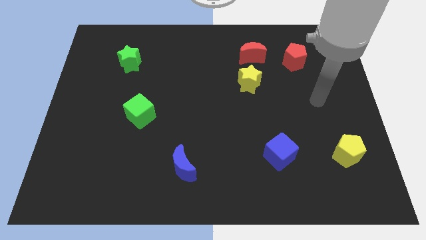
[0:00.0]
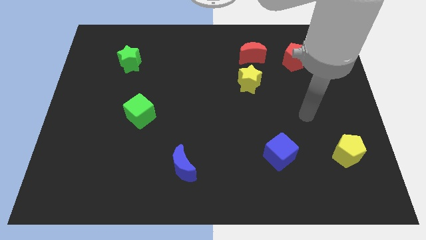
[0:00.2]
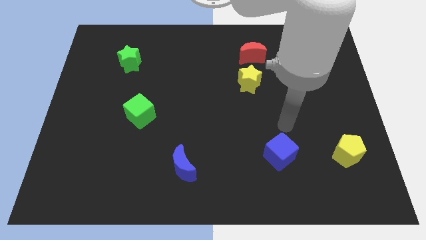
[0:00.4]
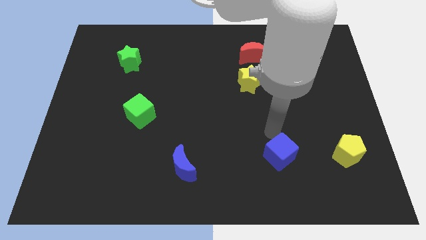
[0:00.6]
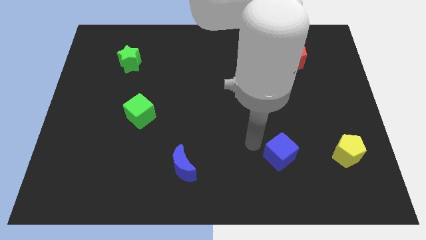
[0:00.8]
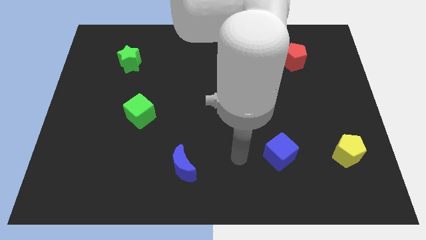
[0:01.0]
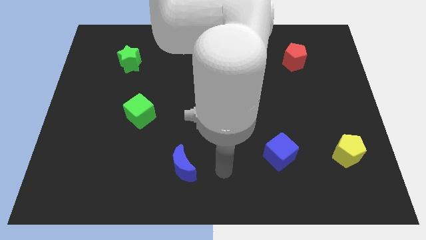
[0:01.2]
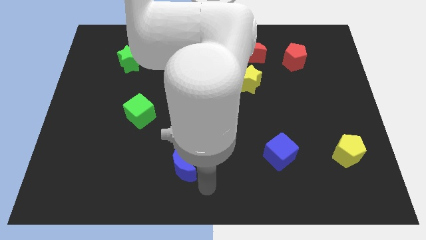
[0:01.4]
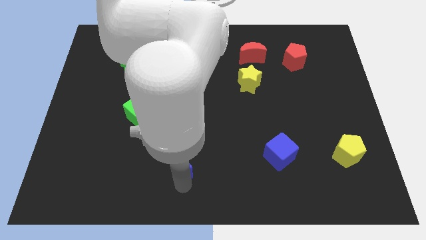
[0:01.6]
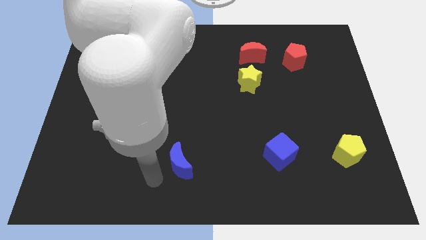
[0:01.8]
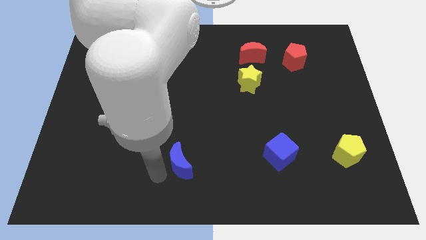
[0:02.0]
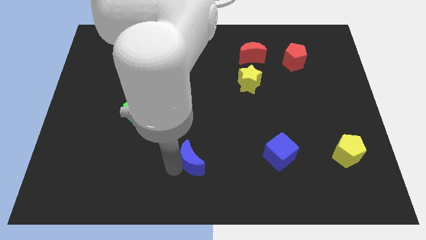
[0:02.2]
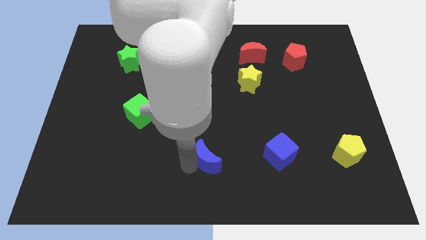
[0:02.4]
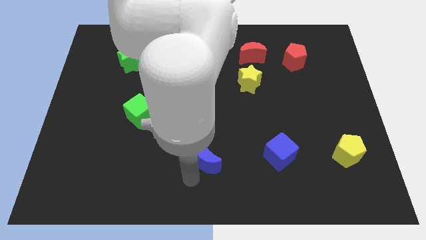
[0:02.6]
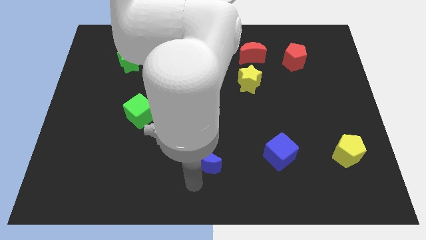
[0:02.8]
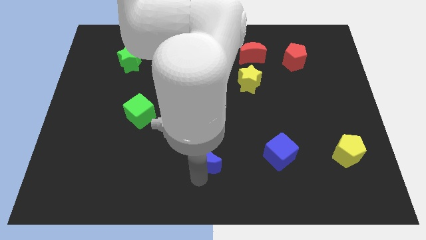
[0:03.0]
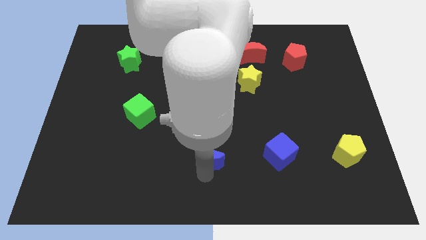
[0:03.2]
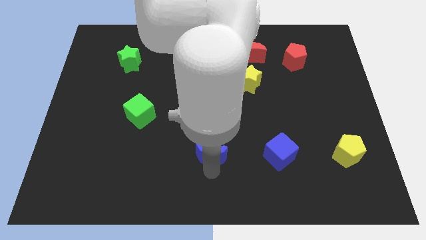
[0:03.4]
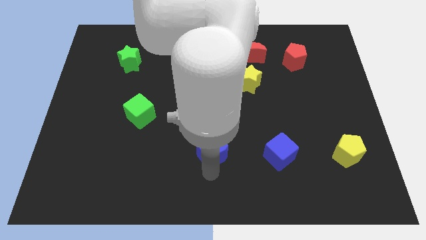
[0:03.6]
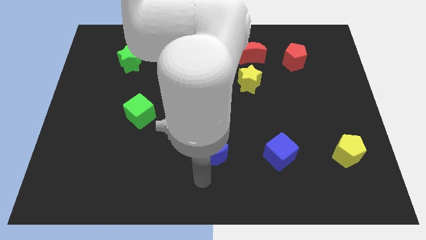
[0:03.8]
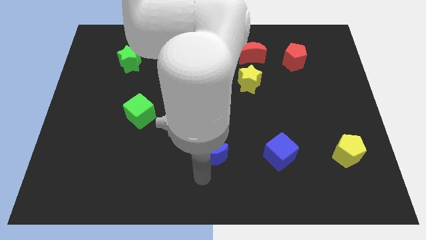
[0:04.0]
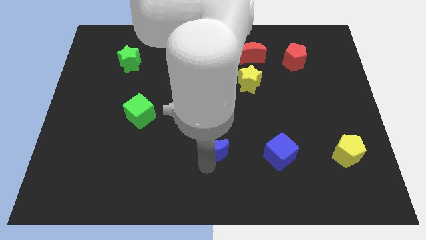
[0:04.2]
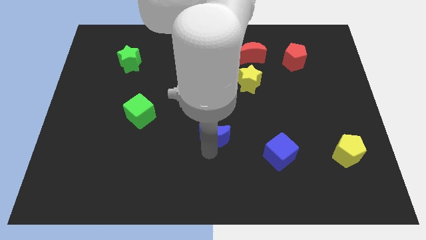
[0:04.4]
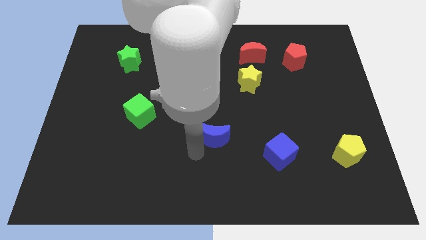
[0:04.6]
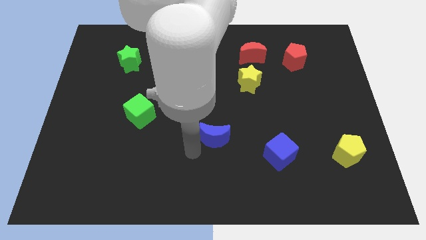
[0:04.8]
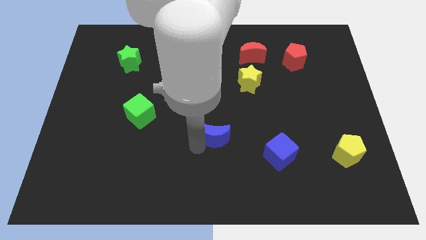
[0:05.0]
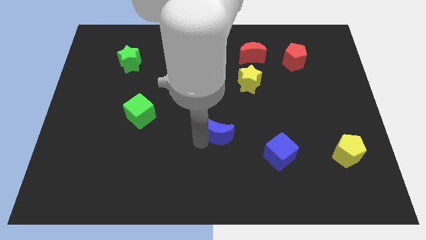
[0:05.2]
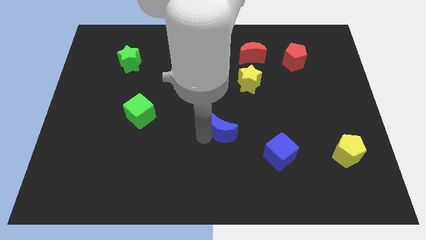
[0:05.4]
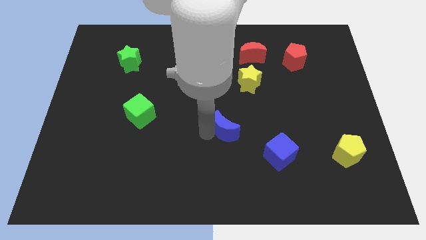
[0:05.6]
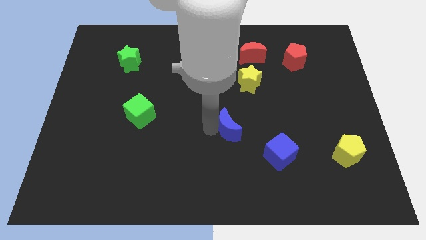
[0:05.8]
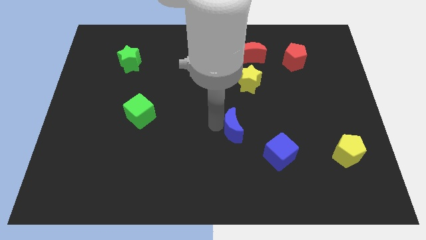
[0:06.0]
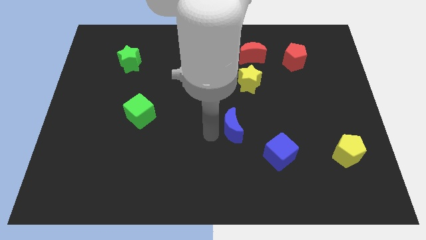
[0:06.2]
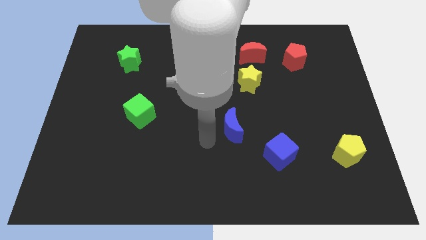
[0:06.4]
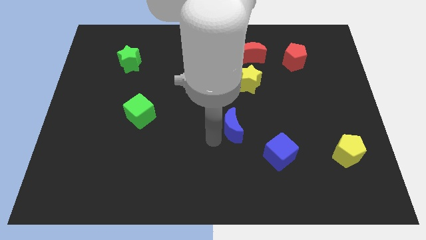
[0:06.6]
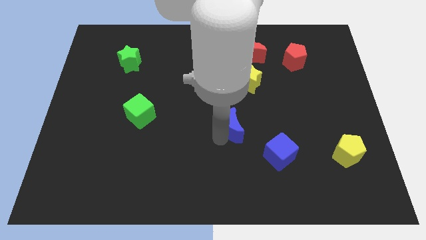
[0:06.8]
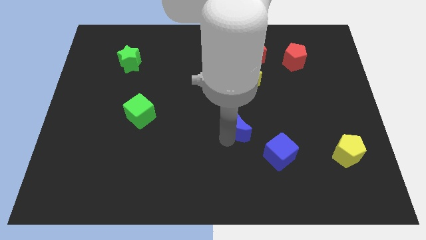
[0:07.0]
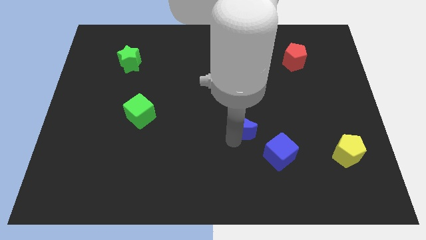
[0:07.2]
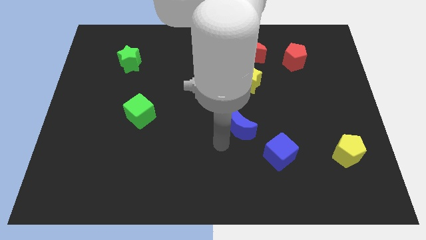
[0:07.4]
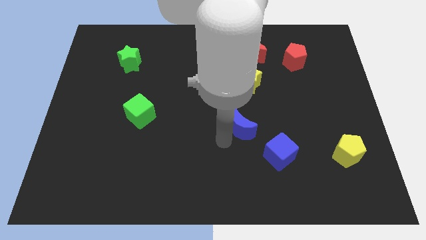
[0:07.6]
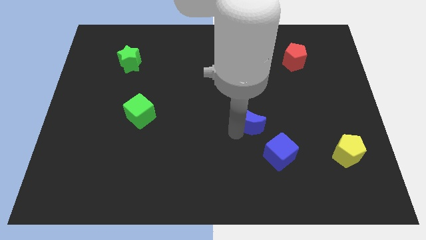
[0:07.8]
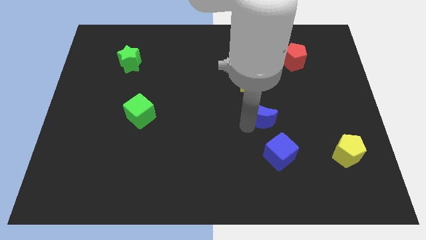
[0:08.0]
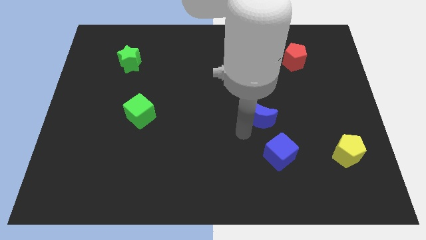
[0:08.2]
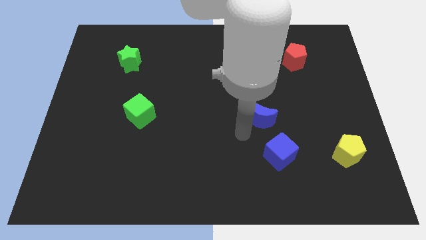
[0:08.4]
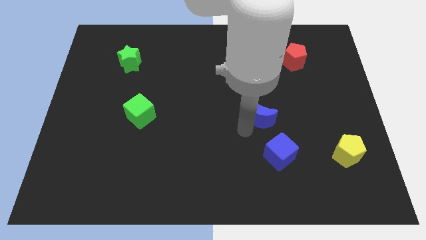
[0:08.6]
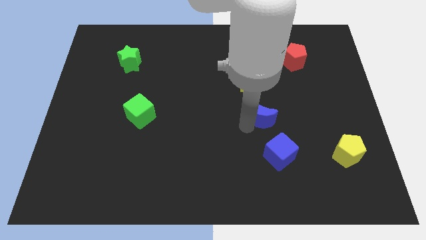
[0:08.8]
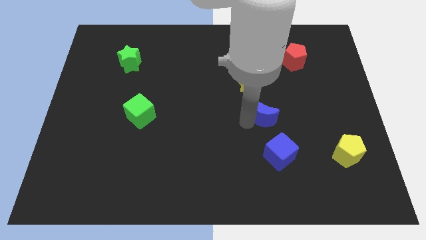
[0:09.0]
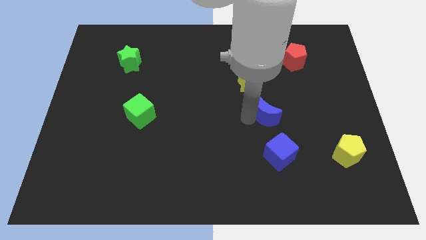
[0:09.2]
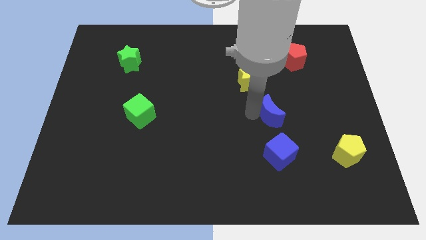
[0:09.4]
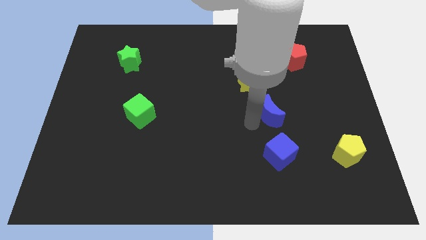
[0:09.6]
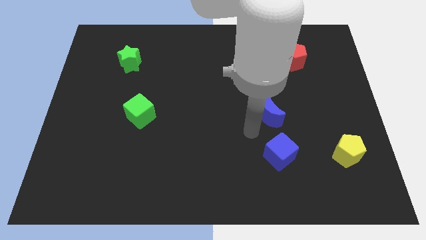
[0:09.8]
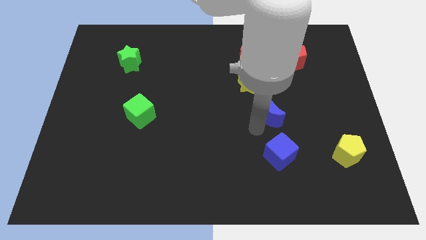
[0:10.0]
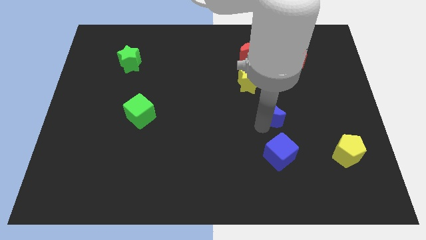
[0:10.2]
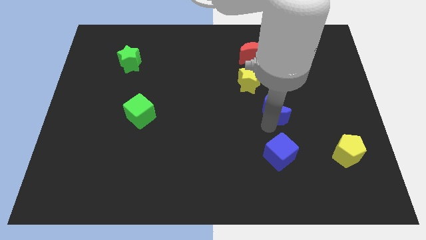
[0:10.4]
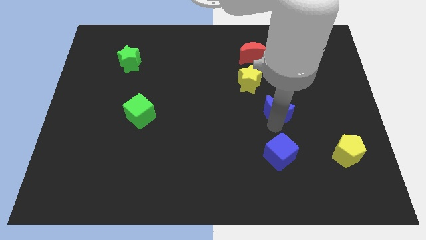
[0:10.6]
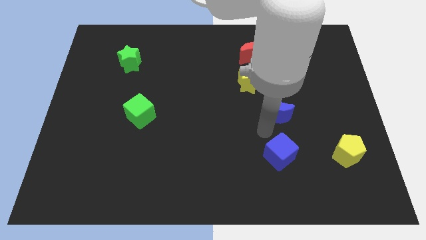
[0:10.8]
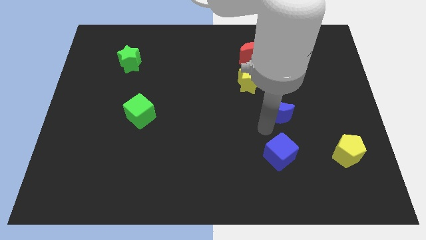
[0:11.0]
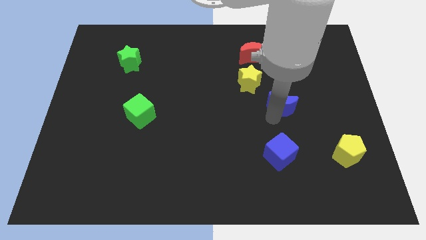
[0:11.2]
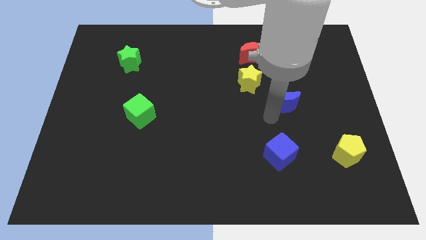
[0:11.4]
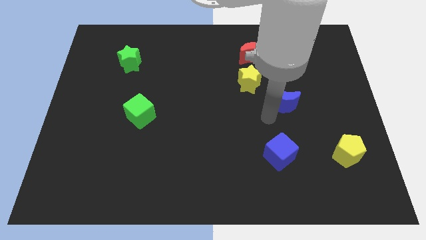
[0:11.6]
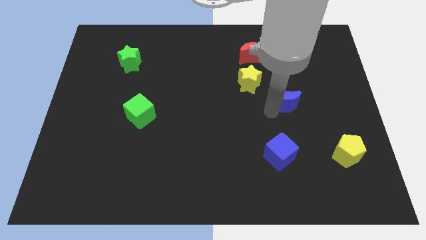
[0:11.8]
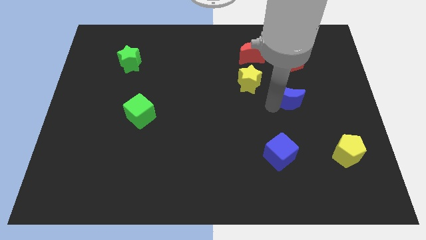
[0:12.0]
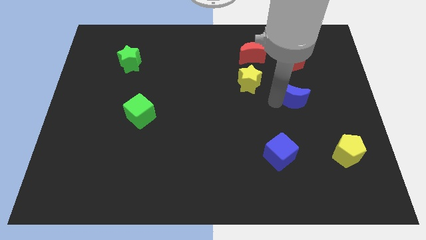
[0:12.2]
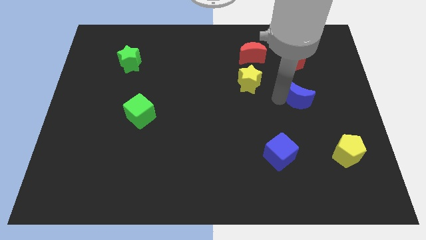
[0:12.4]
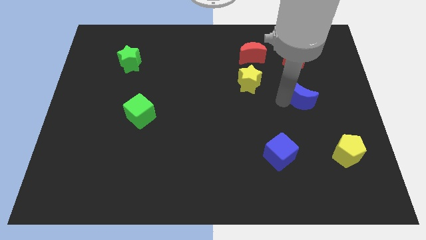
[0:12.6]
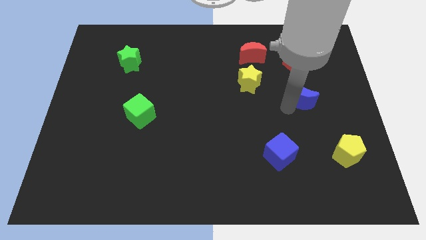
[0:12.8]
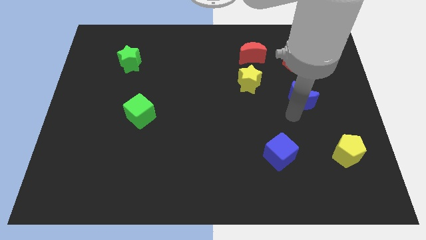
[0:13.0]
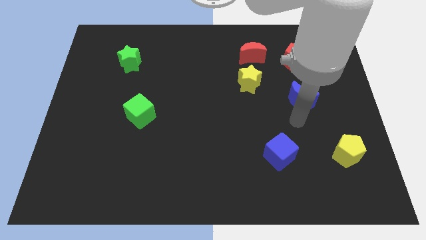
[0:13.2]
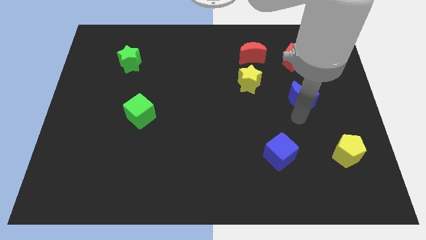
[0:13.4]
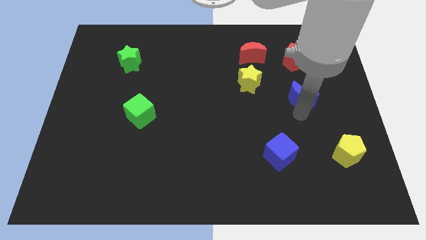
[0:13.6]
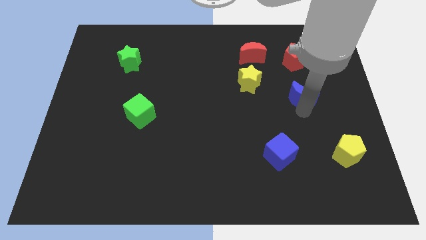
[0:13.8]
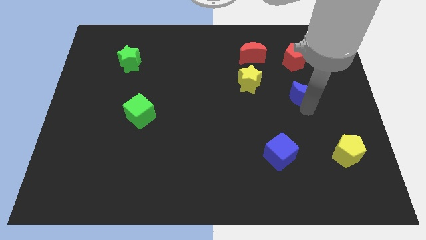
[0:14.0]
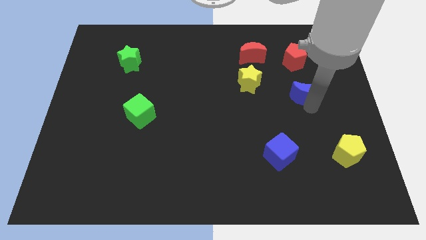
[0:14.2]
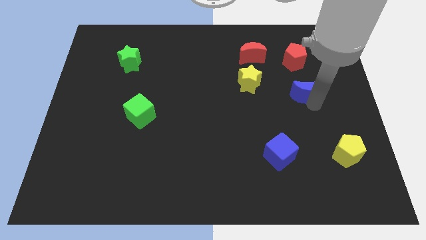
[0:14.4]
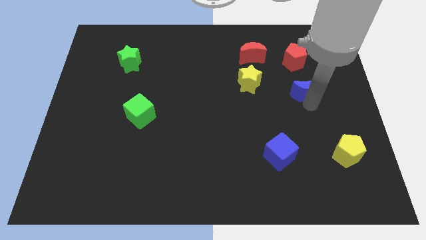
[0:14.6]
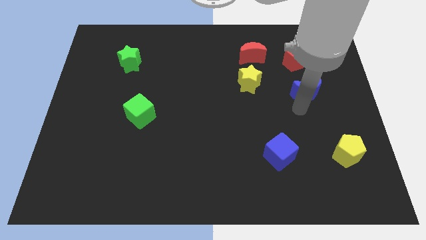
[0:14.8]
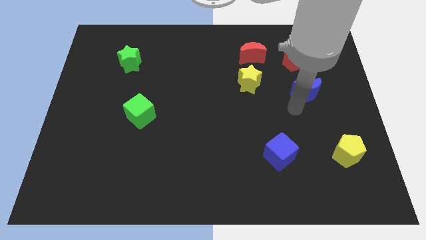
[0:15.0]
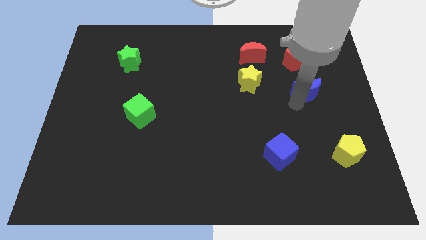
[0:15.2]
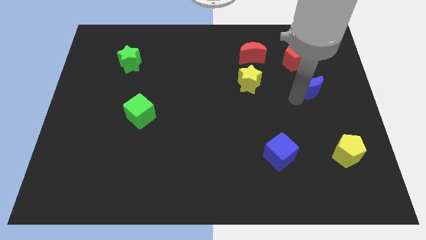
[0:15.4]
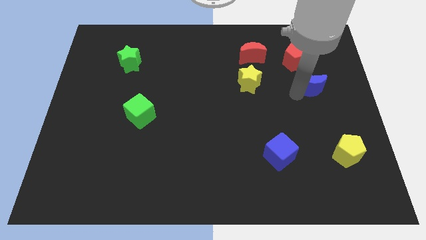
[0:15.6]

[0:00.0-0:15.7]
push the blue moon diagonally down and to the right of the red pentagon

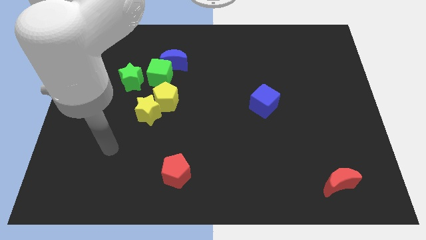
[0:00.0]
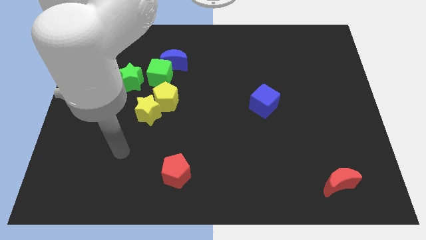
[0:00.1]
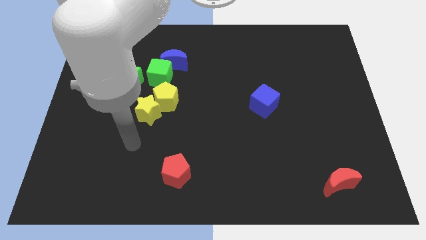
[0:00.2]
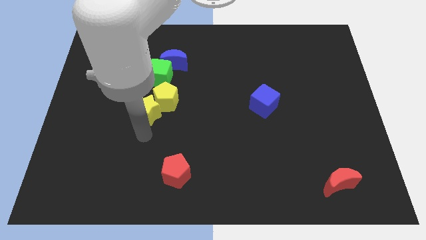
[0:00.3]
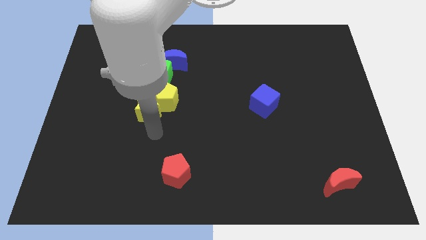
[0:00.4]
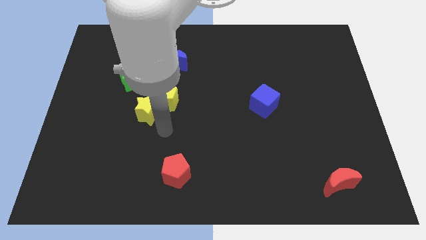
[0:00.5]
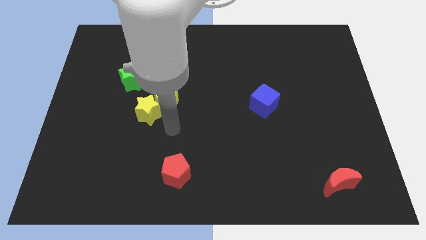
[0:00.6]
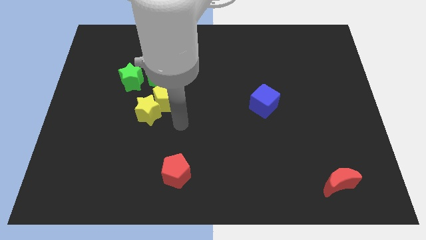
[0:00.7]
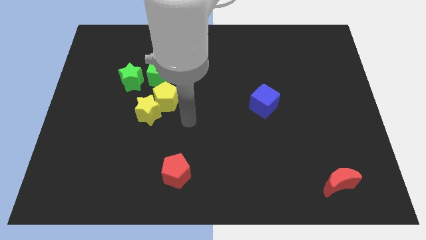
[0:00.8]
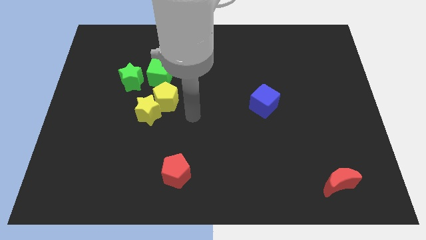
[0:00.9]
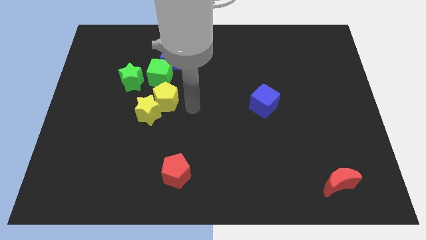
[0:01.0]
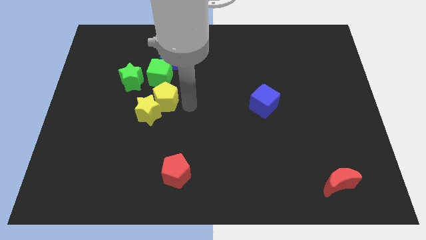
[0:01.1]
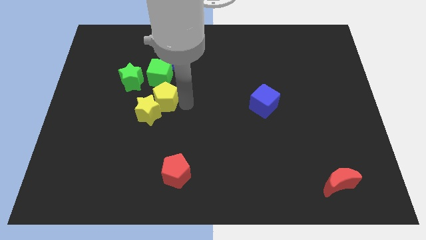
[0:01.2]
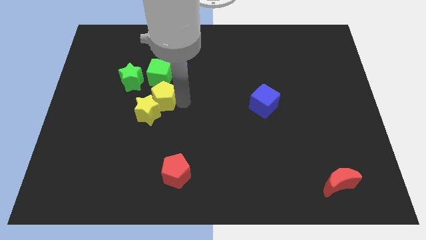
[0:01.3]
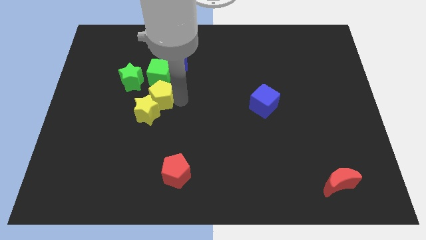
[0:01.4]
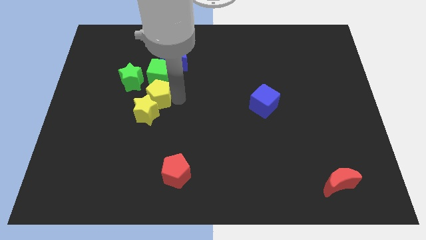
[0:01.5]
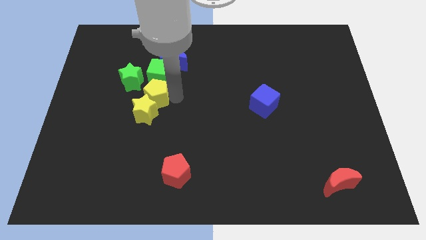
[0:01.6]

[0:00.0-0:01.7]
slide the yellow pentagon to the bottom left side of the green cube
